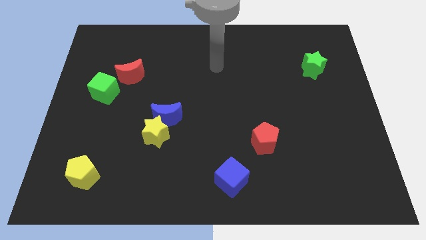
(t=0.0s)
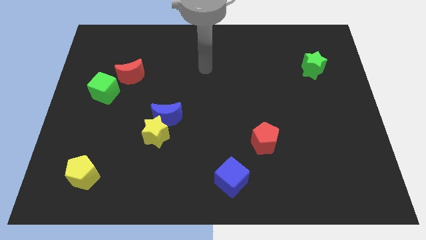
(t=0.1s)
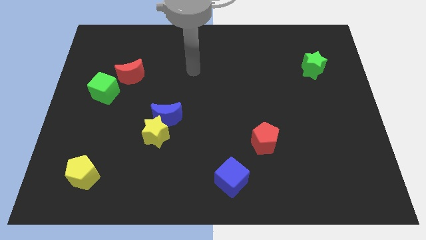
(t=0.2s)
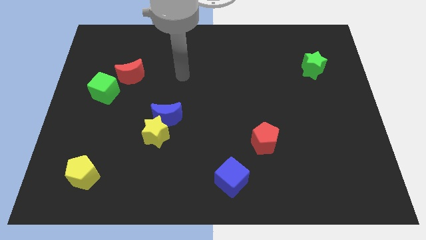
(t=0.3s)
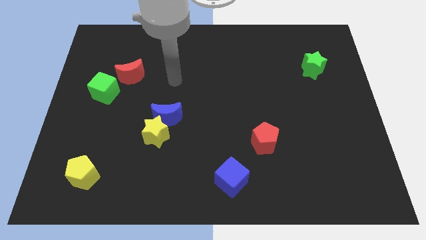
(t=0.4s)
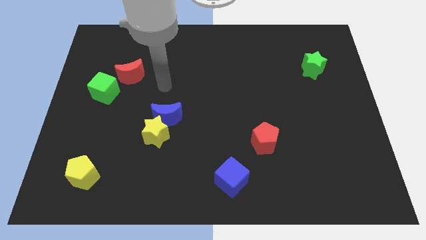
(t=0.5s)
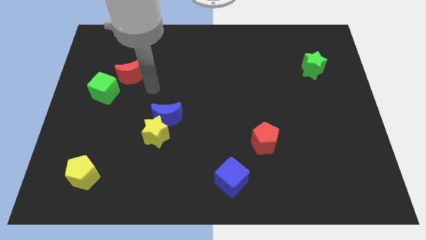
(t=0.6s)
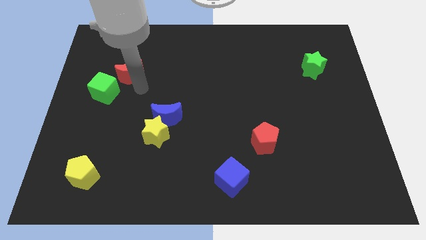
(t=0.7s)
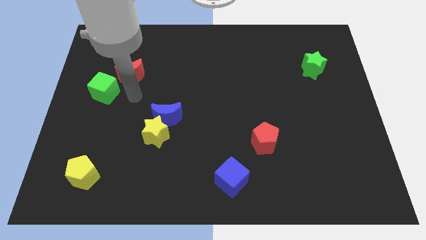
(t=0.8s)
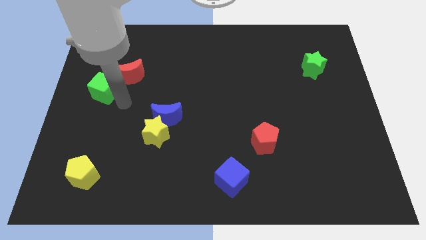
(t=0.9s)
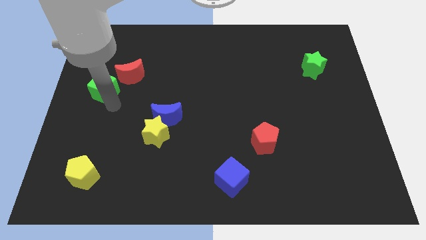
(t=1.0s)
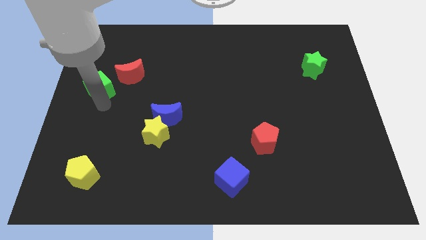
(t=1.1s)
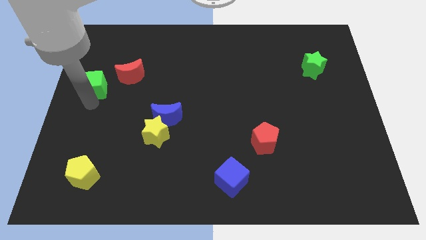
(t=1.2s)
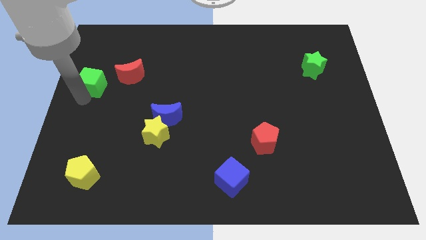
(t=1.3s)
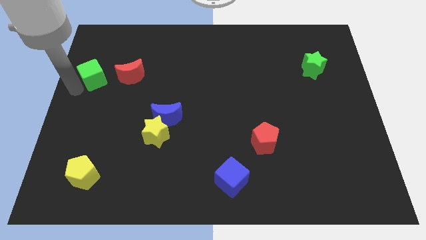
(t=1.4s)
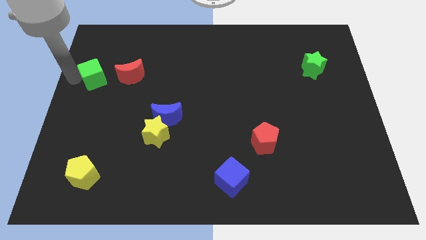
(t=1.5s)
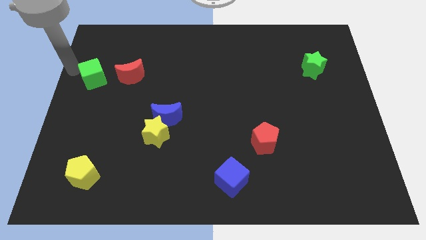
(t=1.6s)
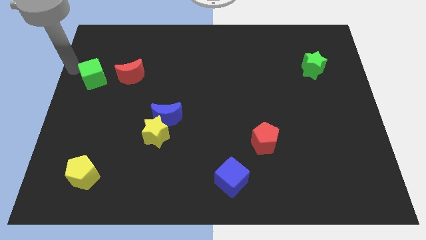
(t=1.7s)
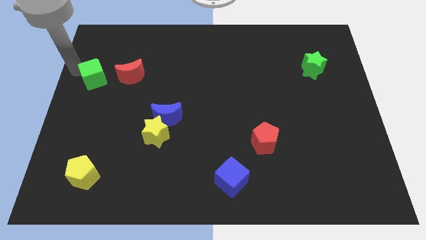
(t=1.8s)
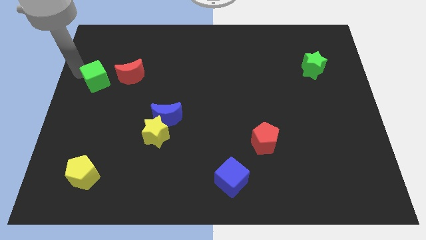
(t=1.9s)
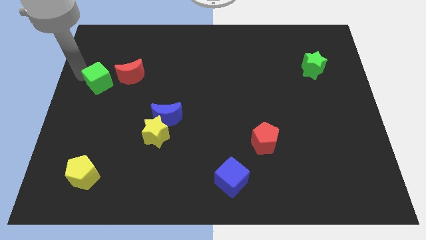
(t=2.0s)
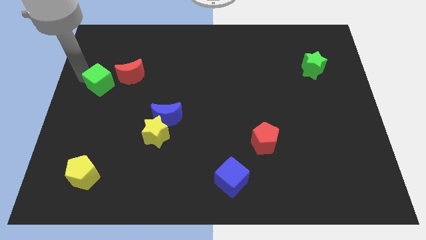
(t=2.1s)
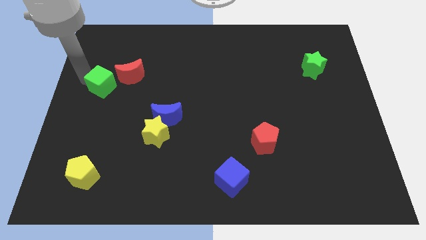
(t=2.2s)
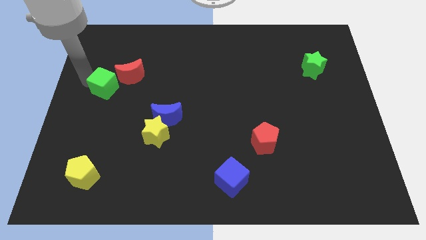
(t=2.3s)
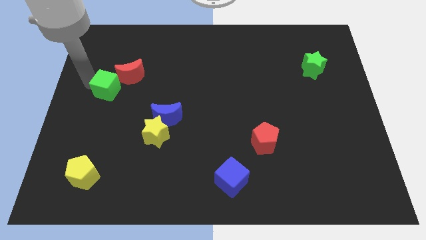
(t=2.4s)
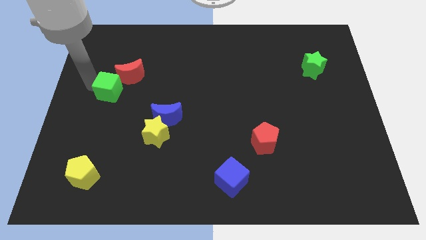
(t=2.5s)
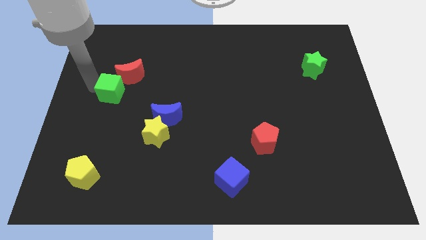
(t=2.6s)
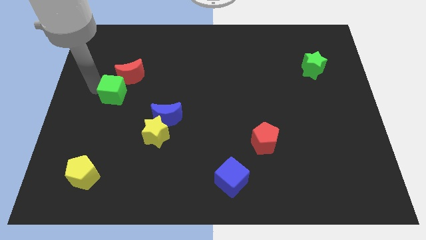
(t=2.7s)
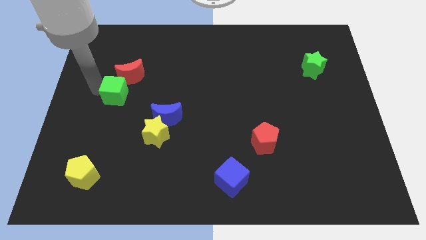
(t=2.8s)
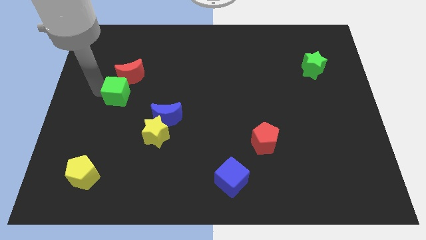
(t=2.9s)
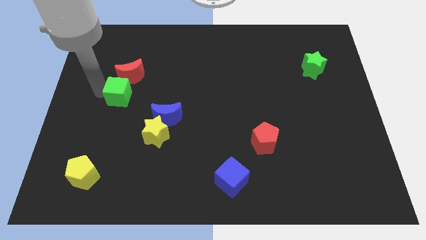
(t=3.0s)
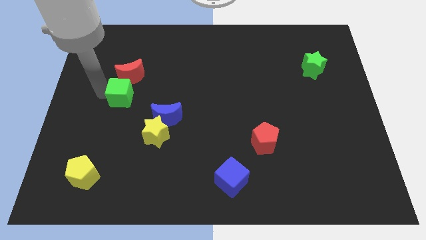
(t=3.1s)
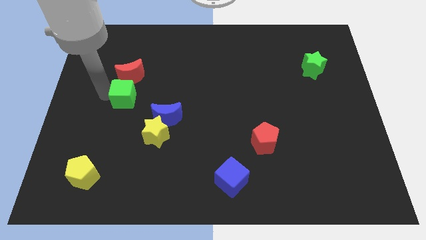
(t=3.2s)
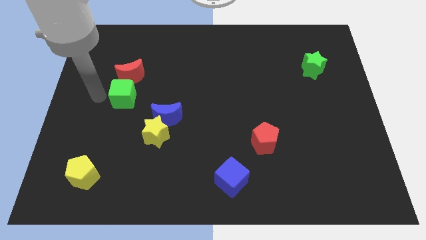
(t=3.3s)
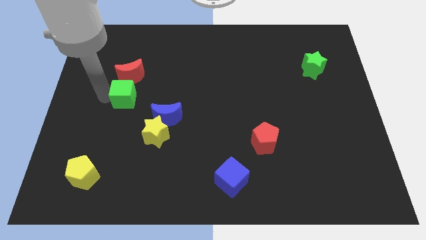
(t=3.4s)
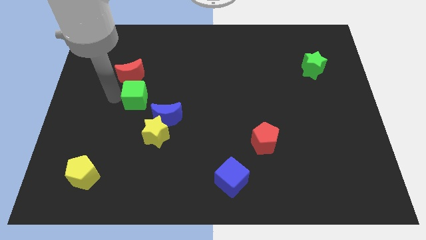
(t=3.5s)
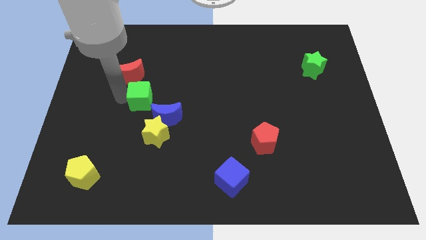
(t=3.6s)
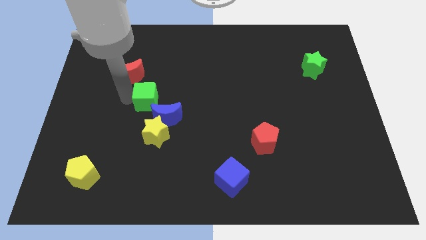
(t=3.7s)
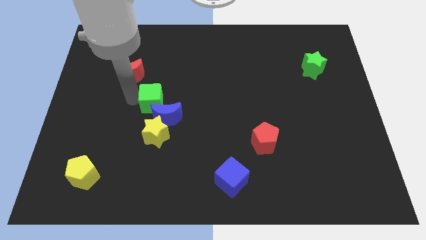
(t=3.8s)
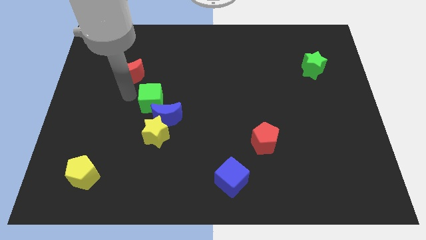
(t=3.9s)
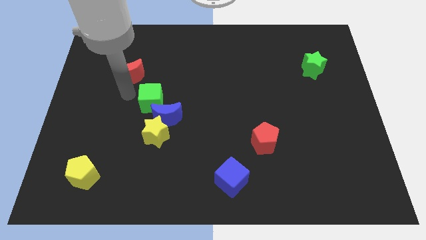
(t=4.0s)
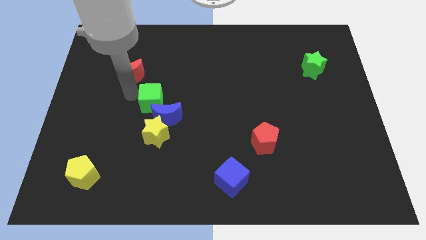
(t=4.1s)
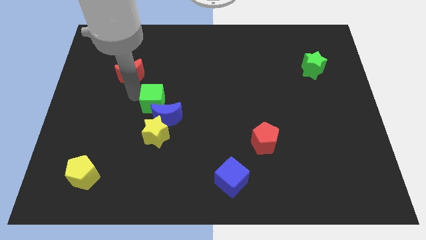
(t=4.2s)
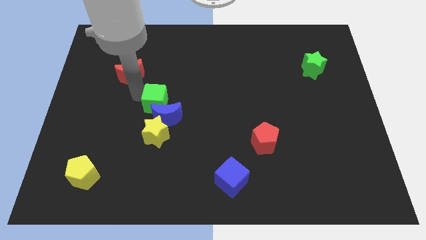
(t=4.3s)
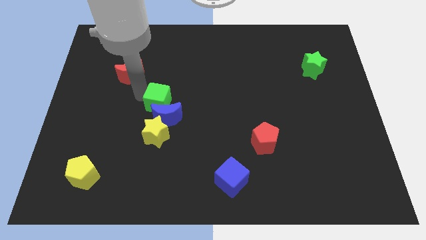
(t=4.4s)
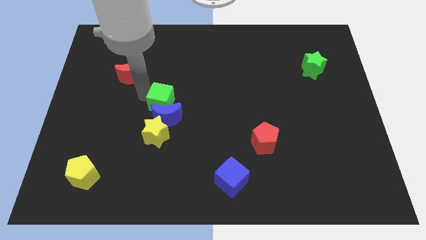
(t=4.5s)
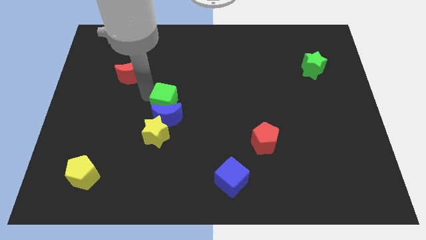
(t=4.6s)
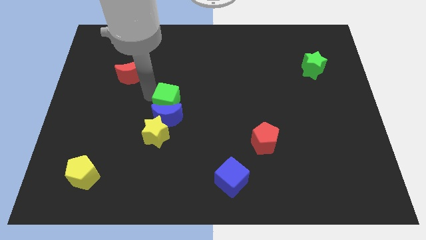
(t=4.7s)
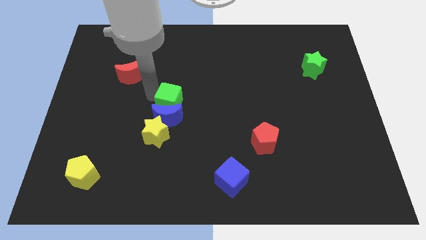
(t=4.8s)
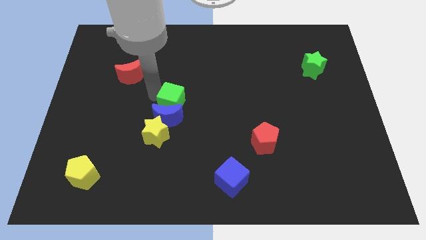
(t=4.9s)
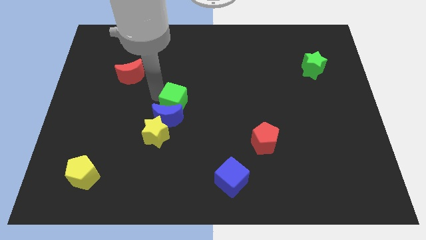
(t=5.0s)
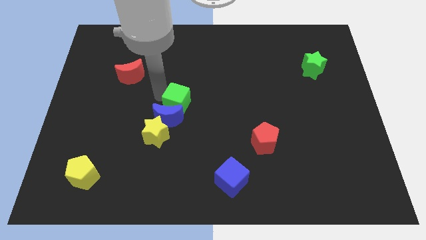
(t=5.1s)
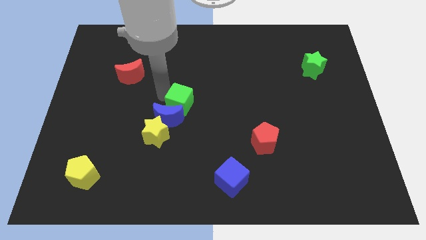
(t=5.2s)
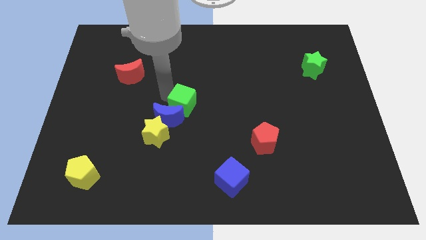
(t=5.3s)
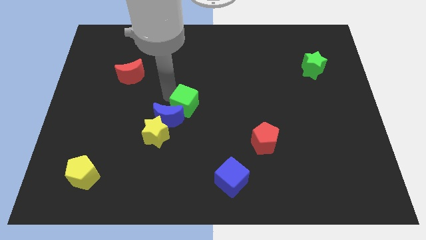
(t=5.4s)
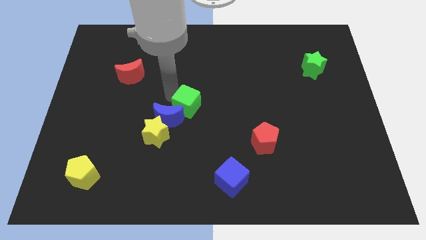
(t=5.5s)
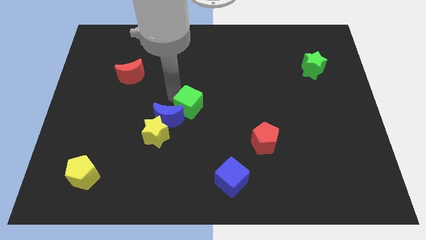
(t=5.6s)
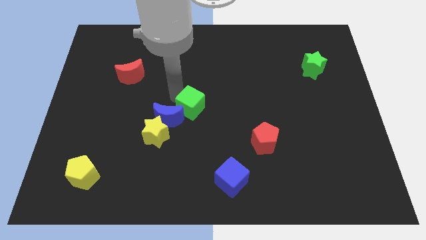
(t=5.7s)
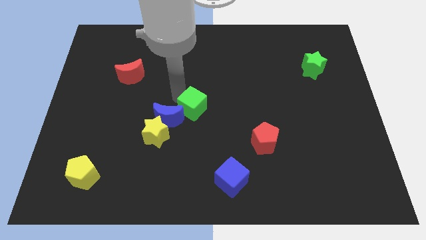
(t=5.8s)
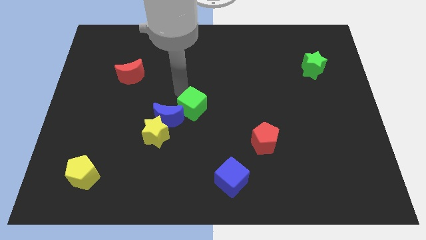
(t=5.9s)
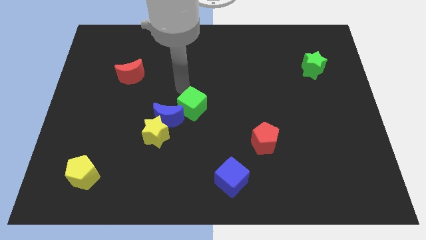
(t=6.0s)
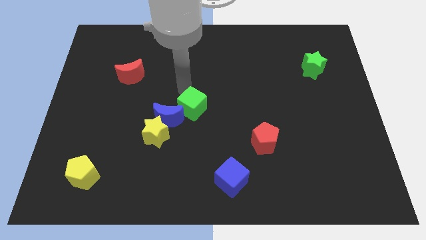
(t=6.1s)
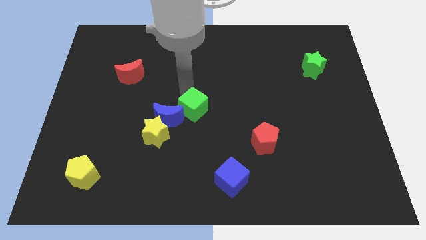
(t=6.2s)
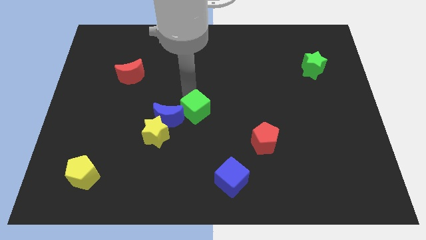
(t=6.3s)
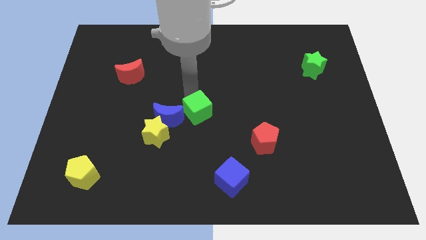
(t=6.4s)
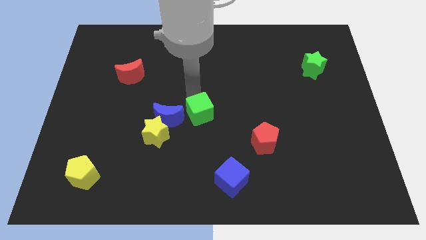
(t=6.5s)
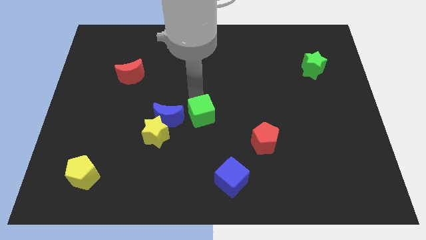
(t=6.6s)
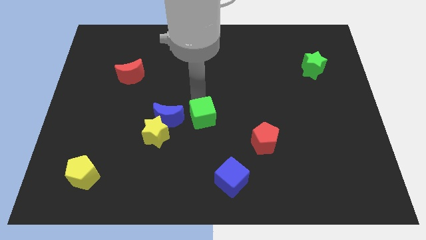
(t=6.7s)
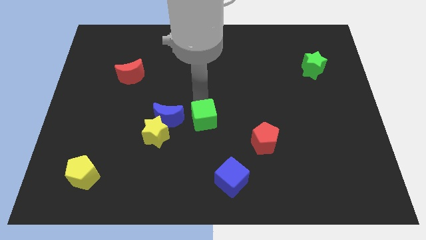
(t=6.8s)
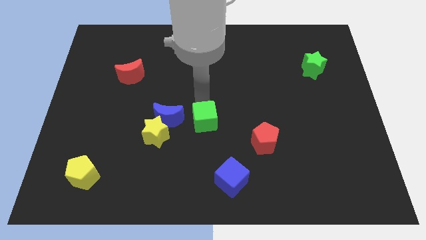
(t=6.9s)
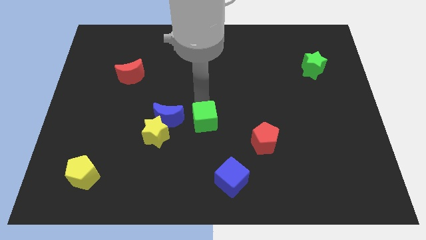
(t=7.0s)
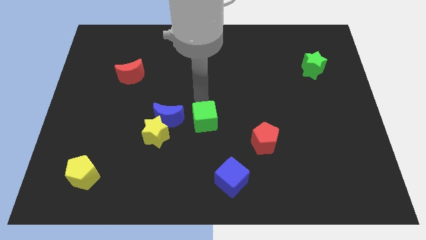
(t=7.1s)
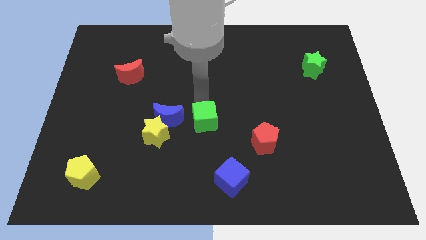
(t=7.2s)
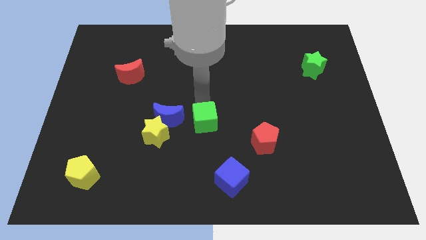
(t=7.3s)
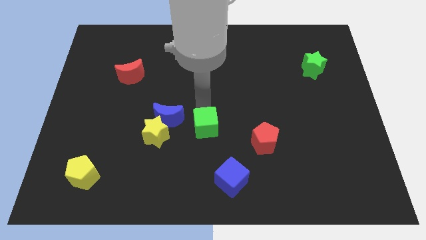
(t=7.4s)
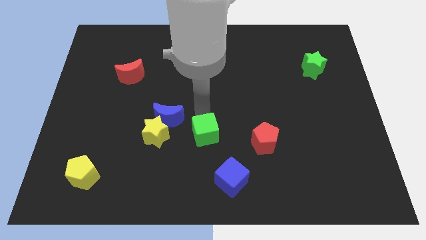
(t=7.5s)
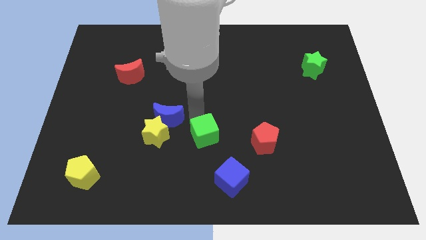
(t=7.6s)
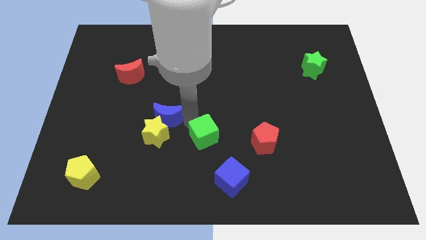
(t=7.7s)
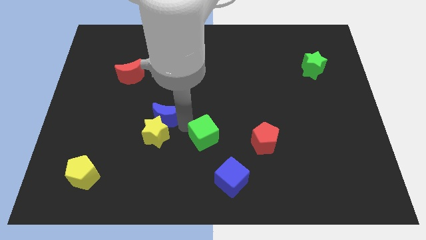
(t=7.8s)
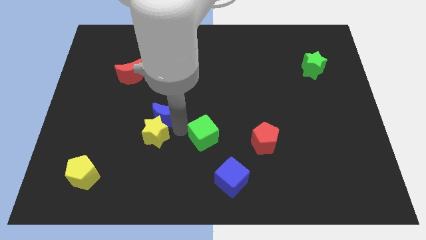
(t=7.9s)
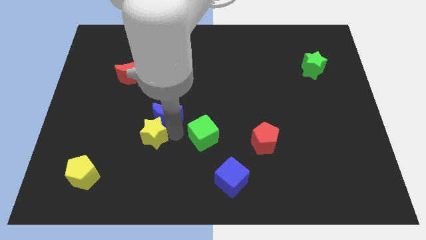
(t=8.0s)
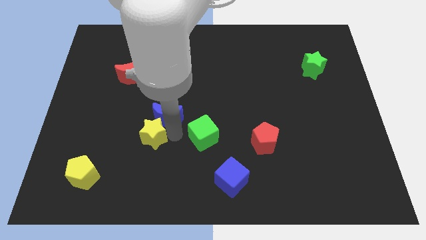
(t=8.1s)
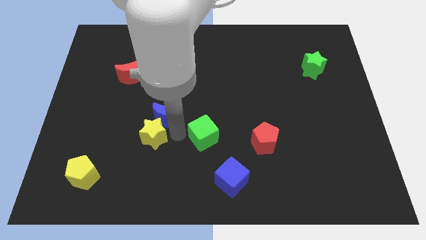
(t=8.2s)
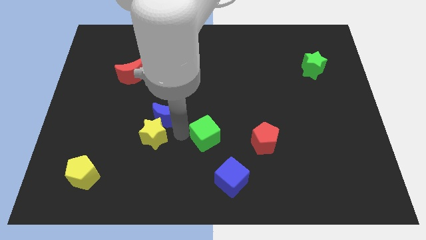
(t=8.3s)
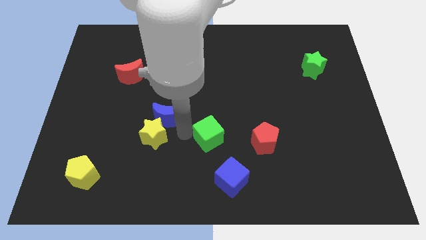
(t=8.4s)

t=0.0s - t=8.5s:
push the green cube to the top of the blue cube
